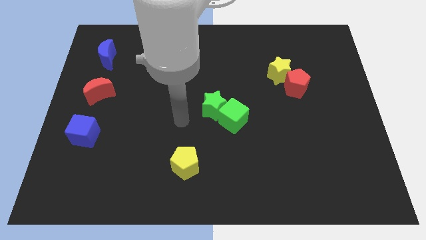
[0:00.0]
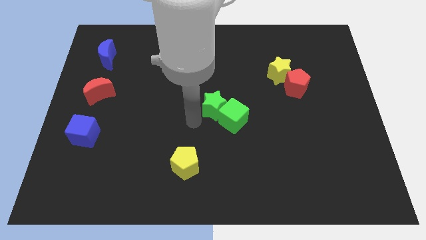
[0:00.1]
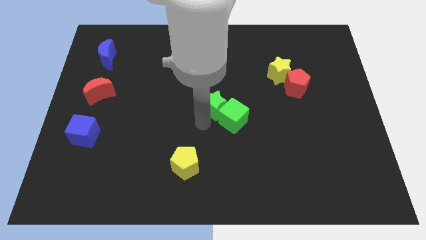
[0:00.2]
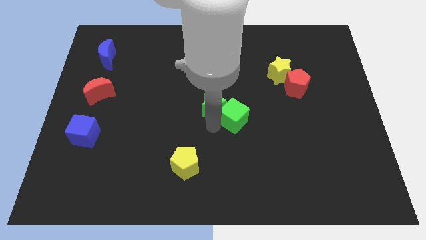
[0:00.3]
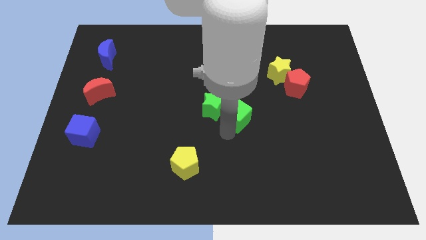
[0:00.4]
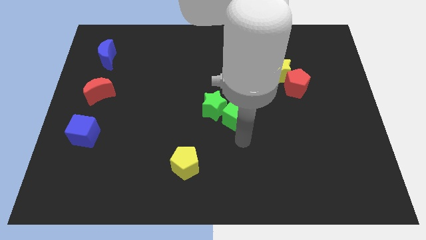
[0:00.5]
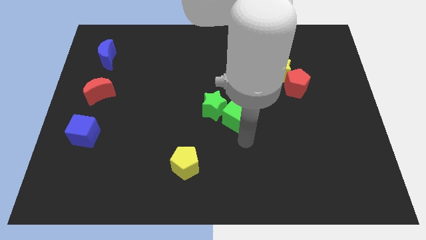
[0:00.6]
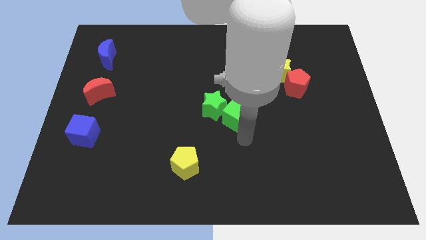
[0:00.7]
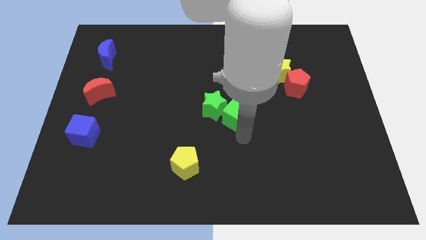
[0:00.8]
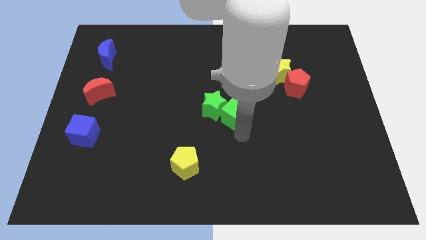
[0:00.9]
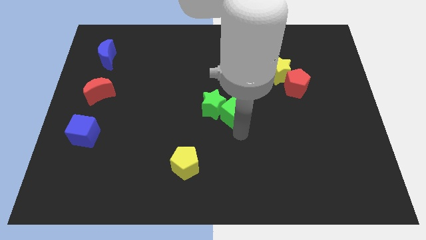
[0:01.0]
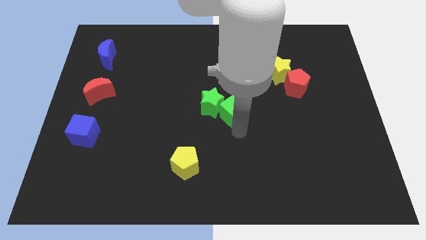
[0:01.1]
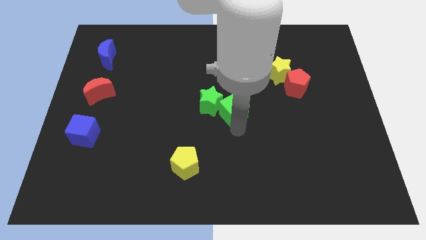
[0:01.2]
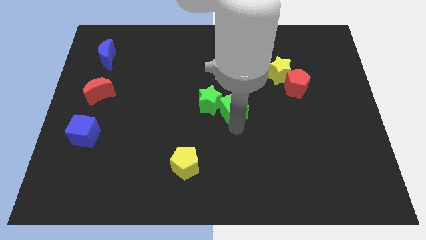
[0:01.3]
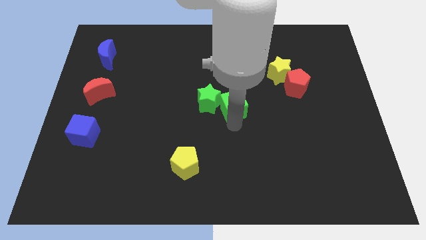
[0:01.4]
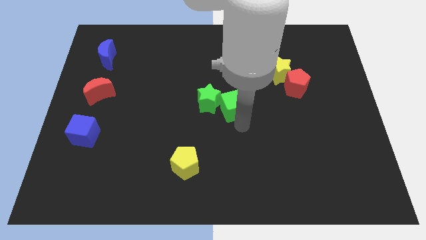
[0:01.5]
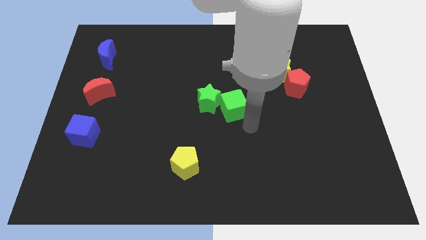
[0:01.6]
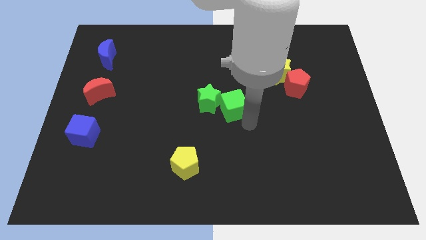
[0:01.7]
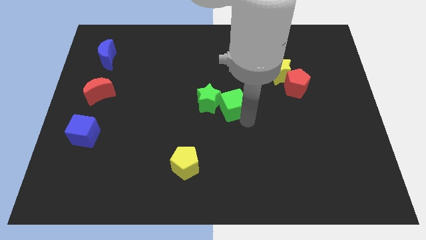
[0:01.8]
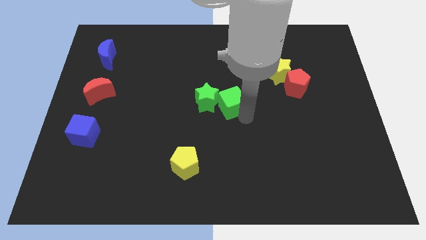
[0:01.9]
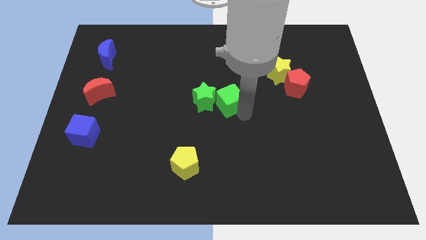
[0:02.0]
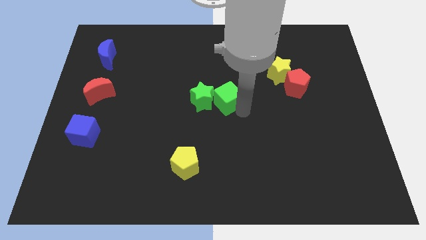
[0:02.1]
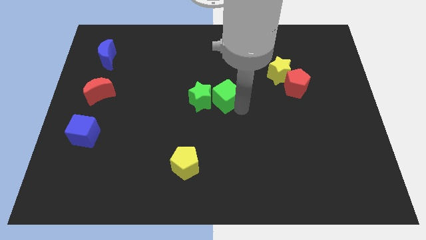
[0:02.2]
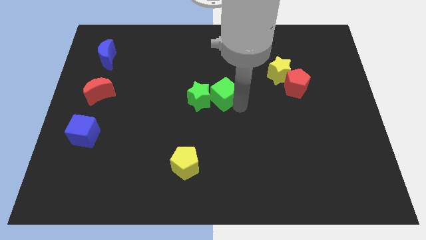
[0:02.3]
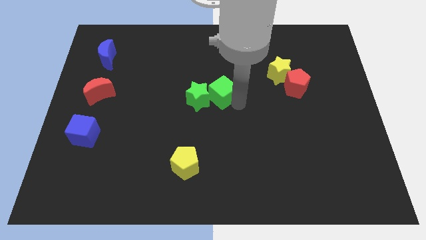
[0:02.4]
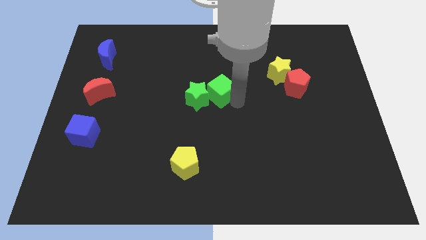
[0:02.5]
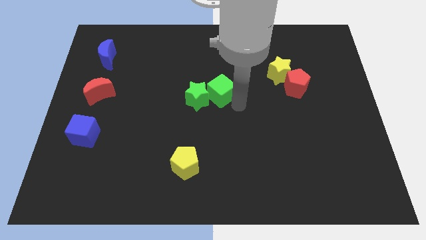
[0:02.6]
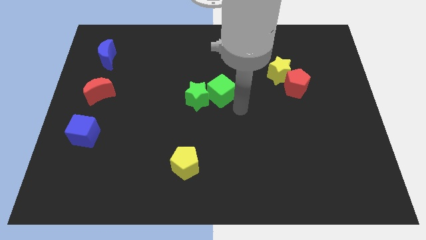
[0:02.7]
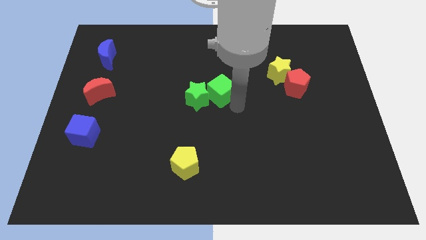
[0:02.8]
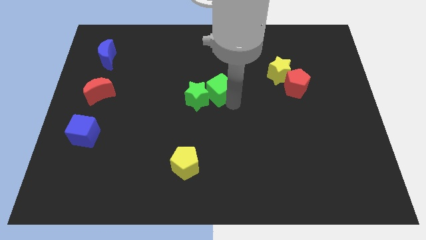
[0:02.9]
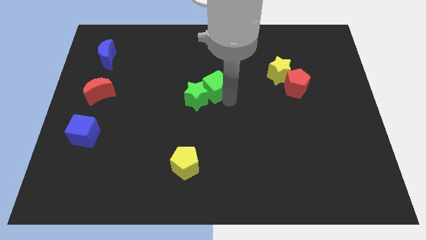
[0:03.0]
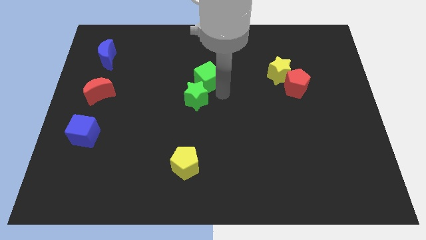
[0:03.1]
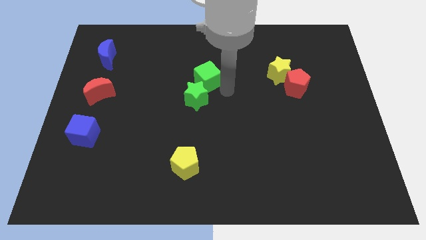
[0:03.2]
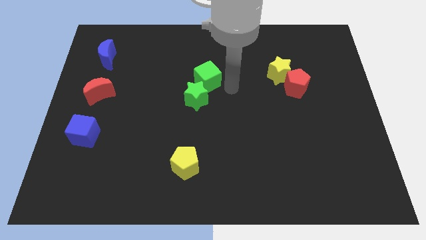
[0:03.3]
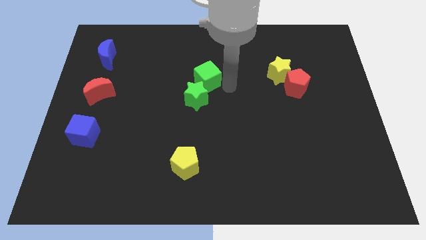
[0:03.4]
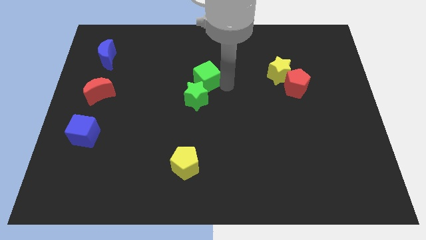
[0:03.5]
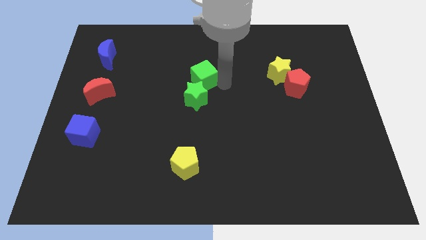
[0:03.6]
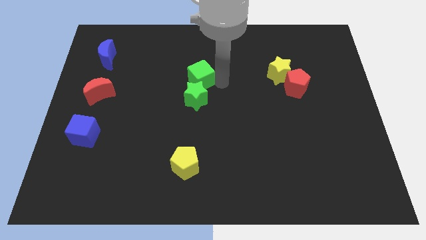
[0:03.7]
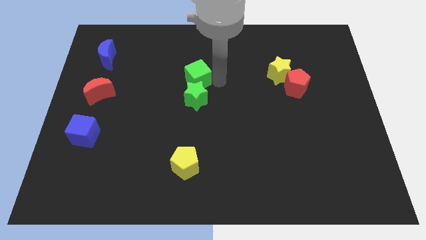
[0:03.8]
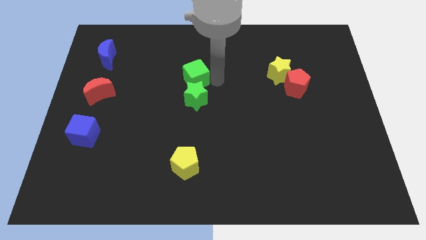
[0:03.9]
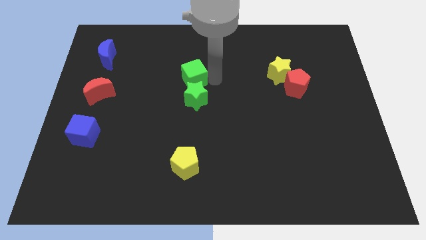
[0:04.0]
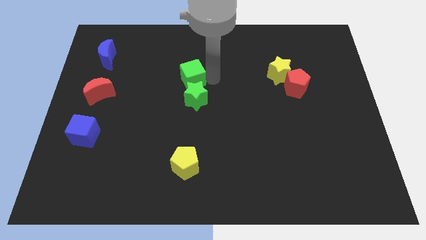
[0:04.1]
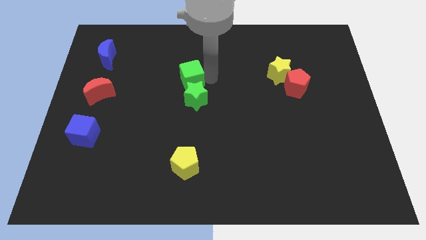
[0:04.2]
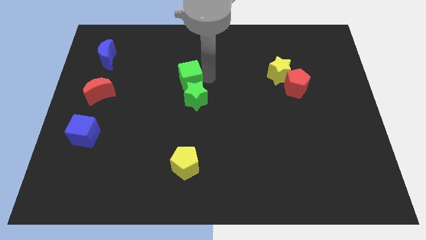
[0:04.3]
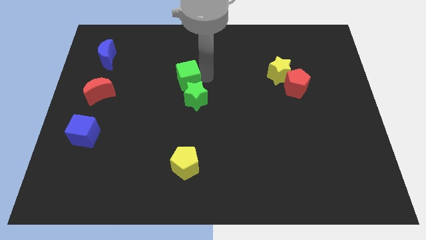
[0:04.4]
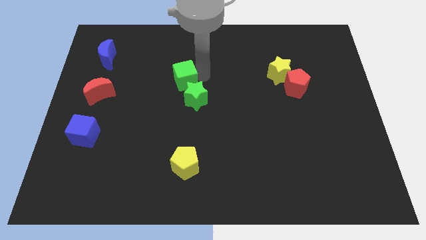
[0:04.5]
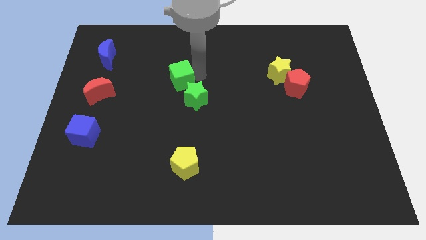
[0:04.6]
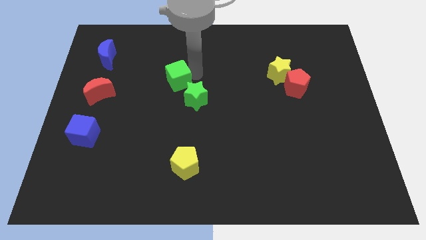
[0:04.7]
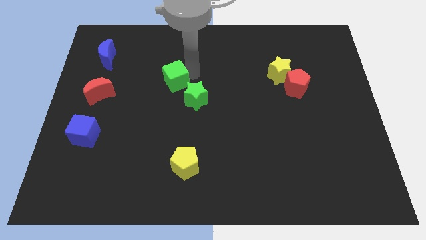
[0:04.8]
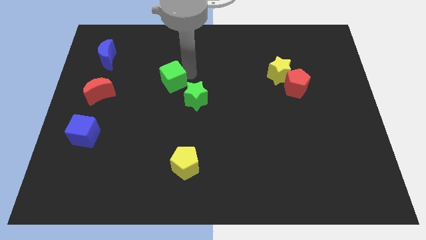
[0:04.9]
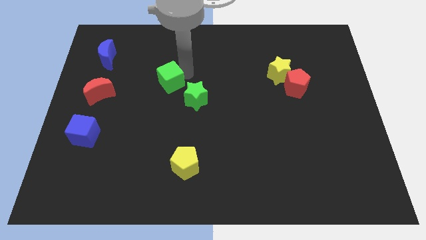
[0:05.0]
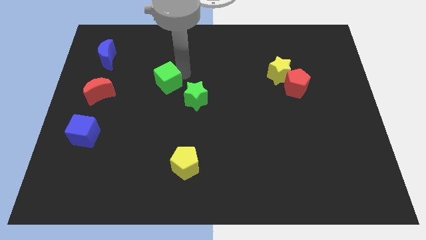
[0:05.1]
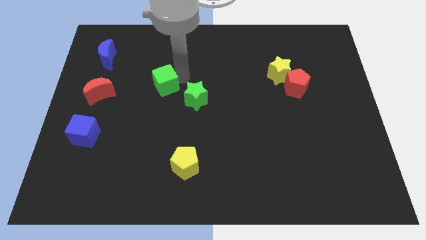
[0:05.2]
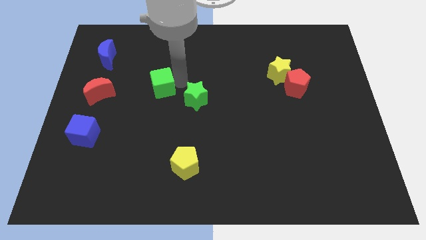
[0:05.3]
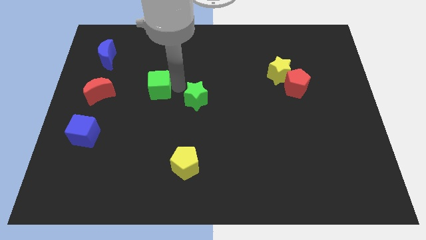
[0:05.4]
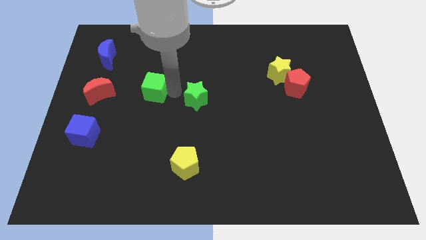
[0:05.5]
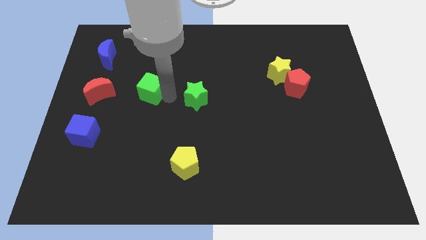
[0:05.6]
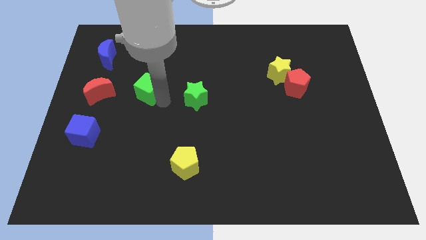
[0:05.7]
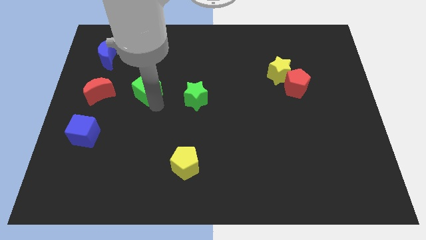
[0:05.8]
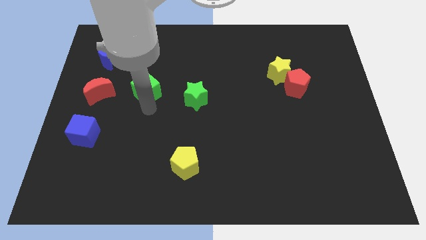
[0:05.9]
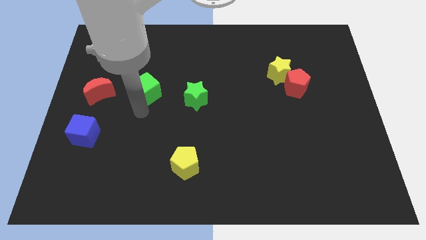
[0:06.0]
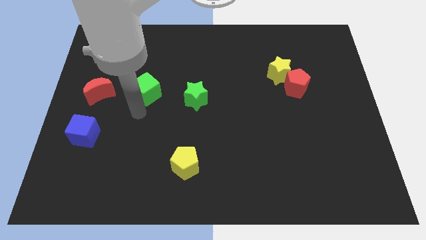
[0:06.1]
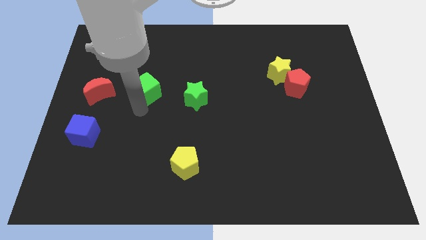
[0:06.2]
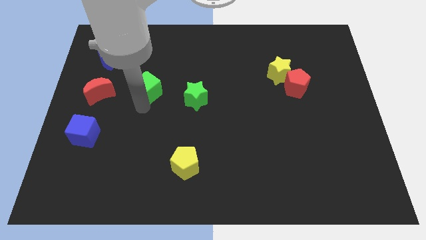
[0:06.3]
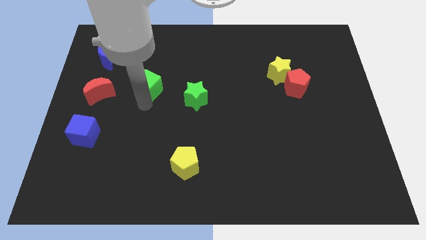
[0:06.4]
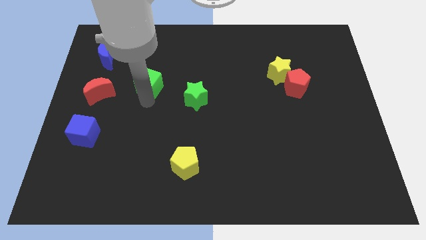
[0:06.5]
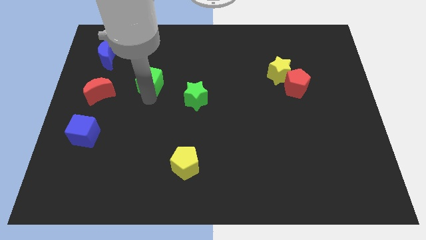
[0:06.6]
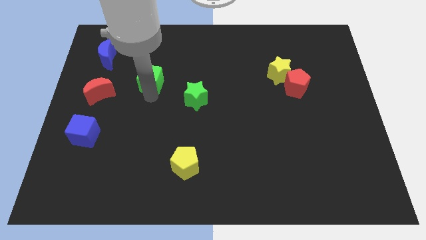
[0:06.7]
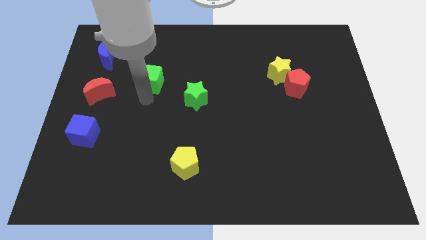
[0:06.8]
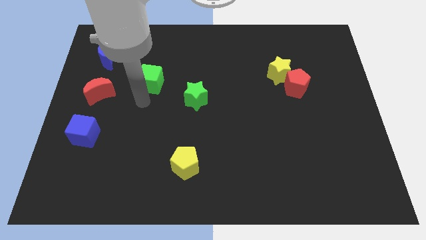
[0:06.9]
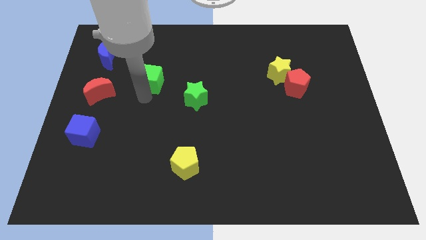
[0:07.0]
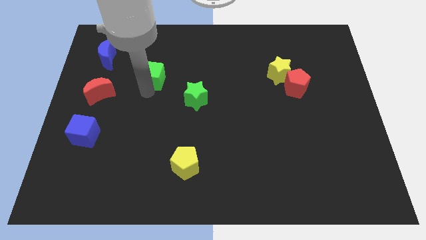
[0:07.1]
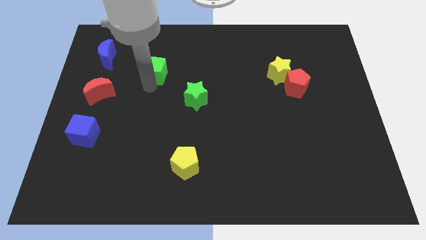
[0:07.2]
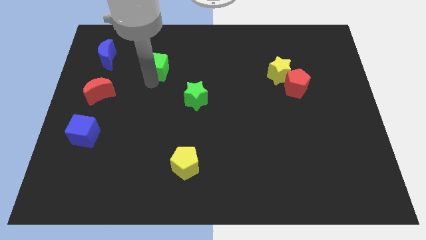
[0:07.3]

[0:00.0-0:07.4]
move the green cube right of the blue moon
